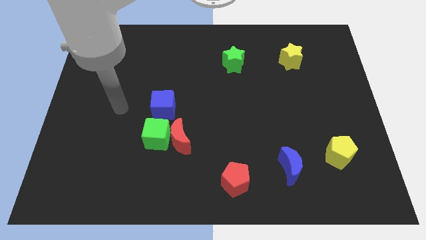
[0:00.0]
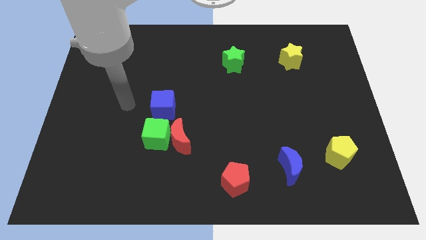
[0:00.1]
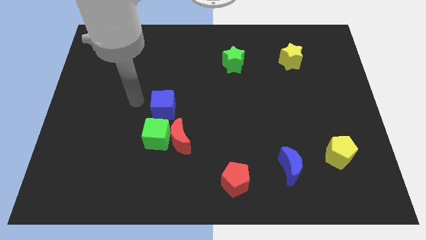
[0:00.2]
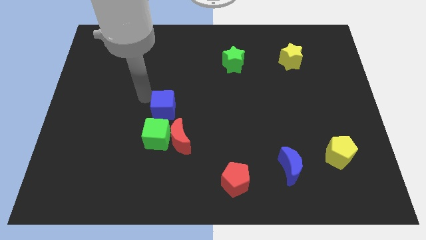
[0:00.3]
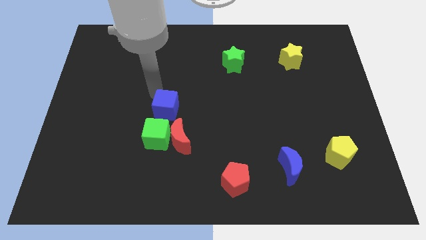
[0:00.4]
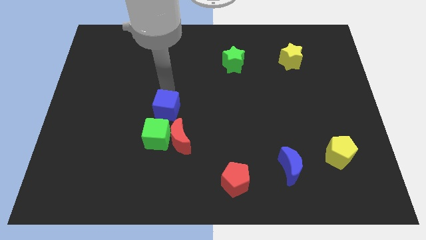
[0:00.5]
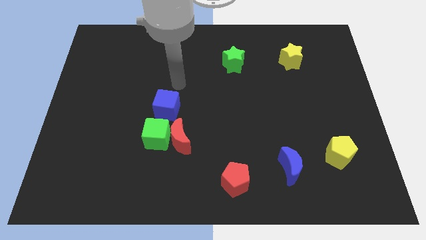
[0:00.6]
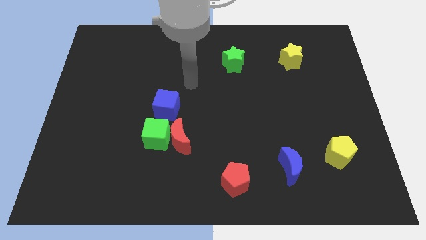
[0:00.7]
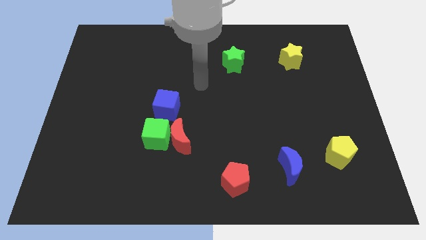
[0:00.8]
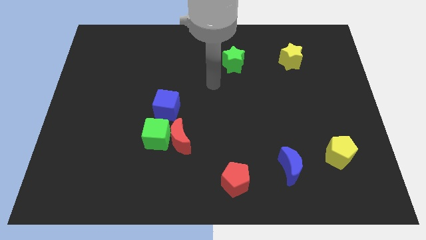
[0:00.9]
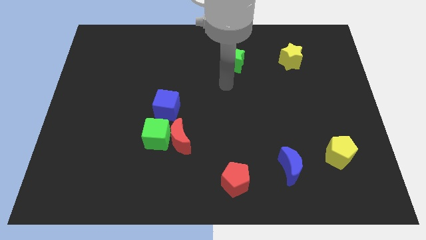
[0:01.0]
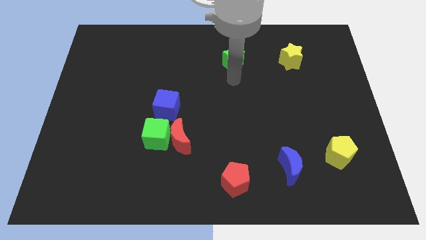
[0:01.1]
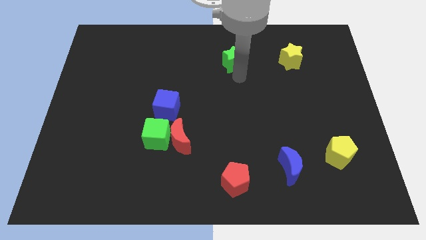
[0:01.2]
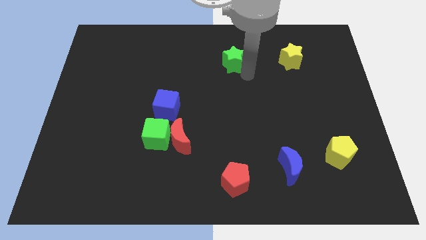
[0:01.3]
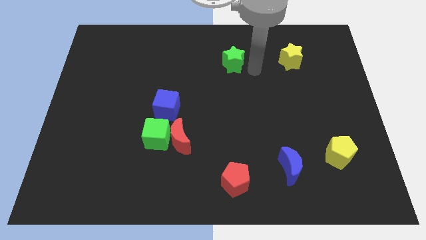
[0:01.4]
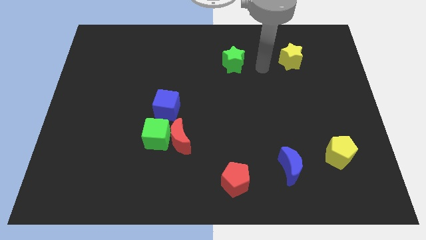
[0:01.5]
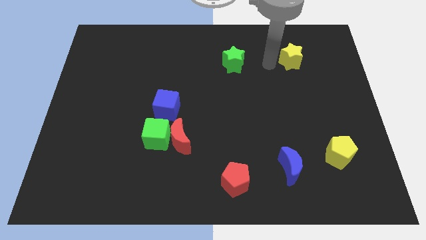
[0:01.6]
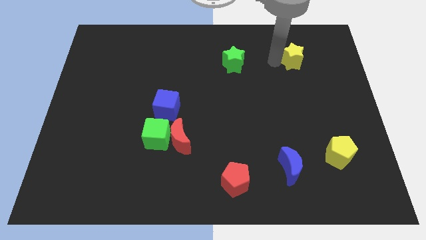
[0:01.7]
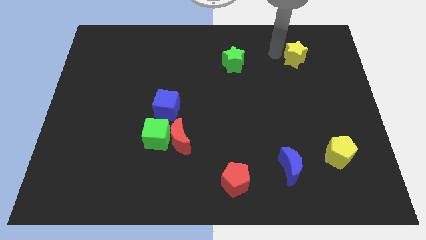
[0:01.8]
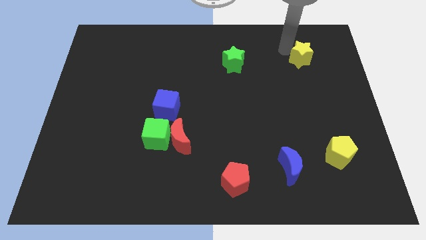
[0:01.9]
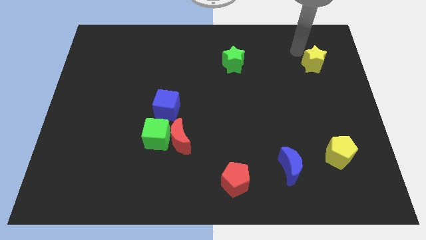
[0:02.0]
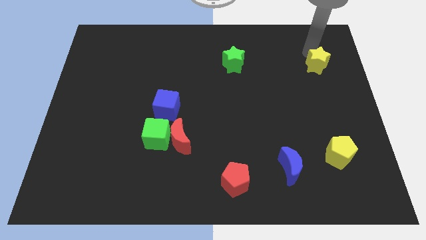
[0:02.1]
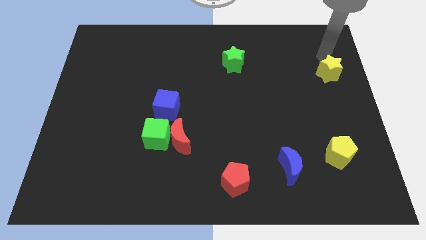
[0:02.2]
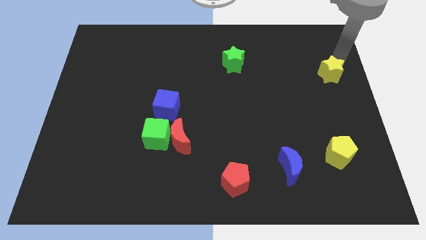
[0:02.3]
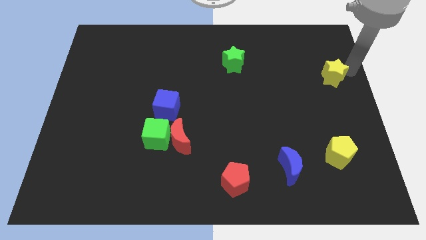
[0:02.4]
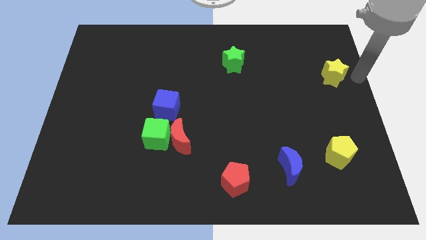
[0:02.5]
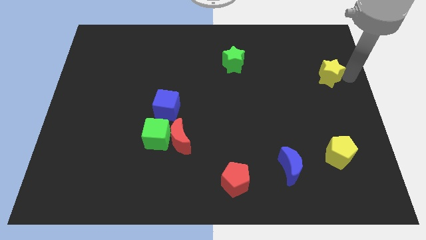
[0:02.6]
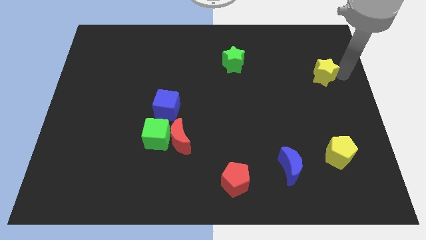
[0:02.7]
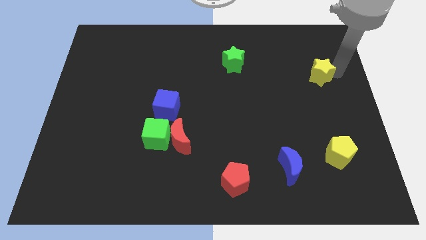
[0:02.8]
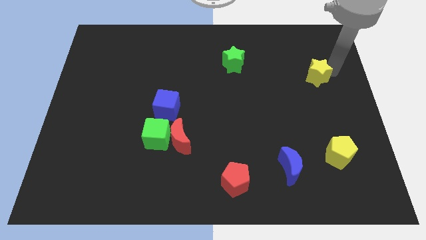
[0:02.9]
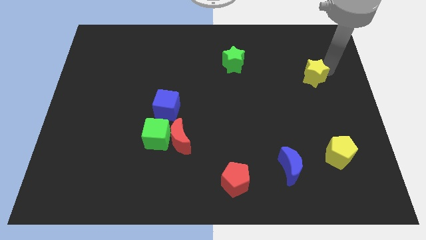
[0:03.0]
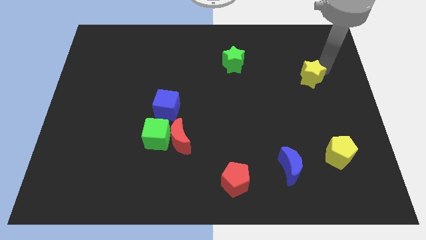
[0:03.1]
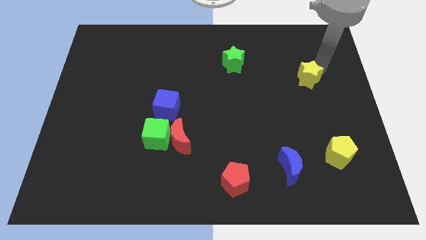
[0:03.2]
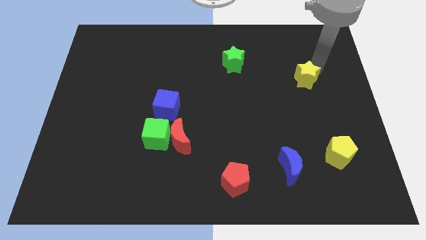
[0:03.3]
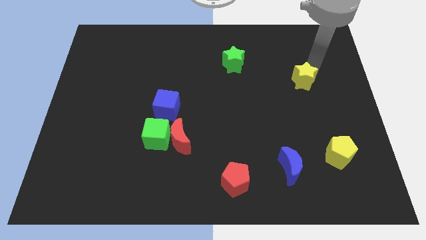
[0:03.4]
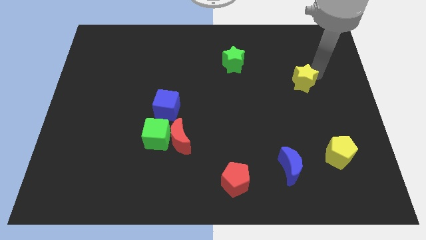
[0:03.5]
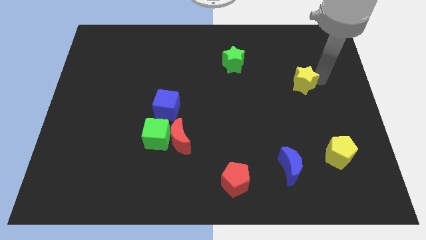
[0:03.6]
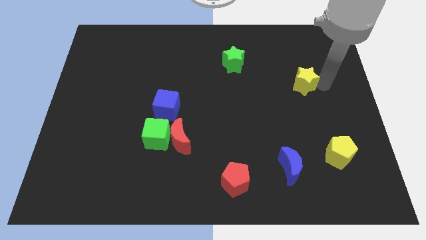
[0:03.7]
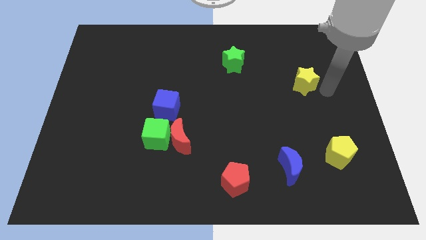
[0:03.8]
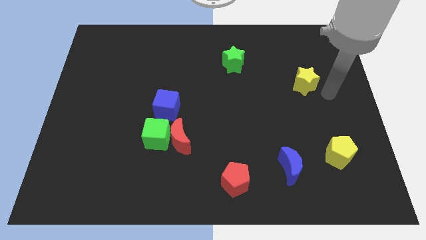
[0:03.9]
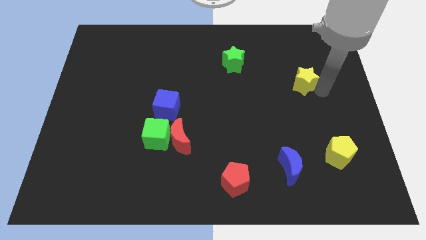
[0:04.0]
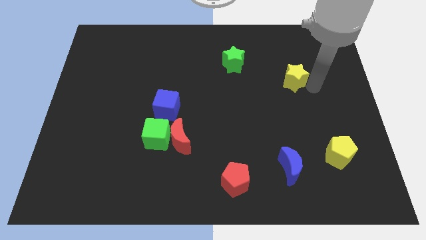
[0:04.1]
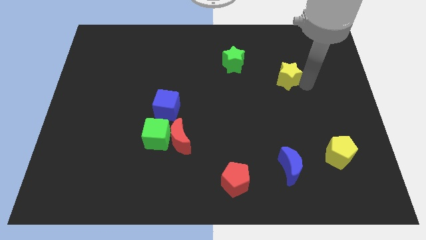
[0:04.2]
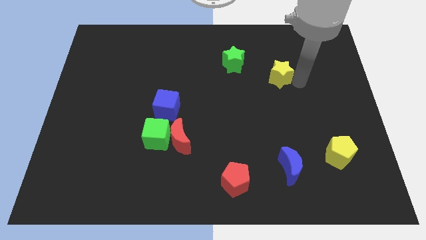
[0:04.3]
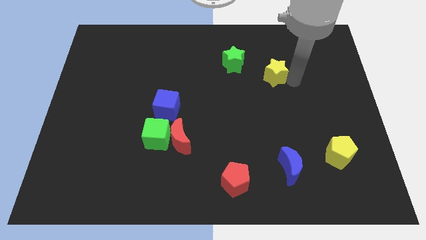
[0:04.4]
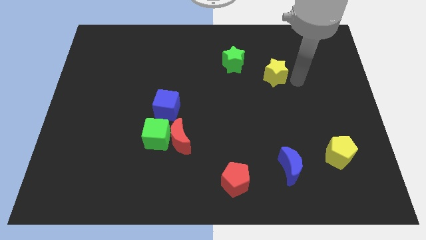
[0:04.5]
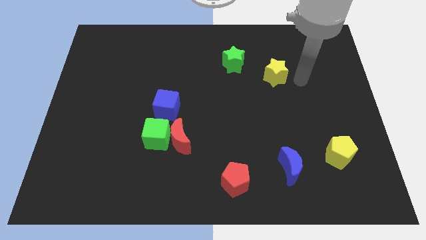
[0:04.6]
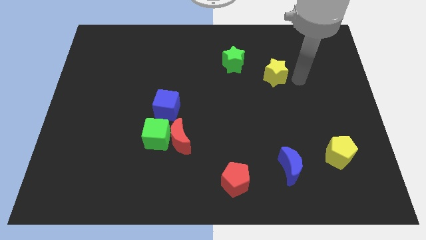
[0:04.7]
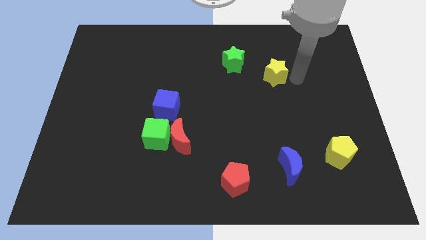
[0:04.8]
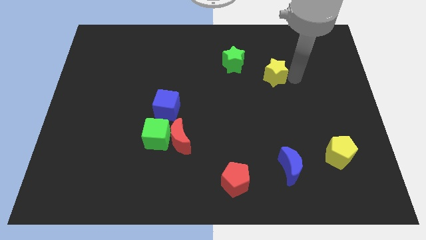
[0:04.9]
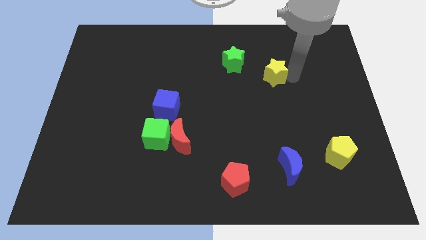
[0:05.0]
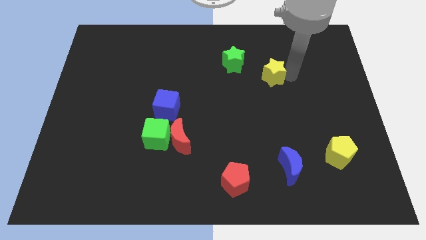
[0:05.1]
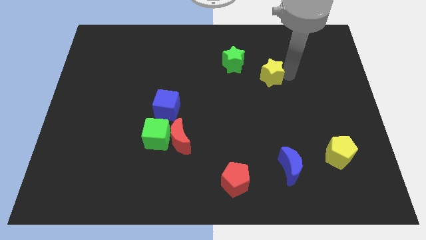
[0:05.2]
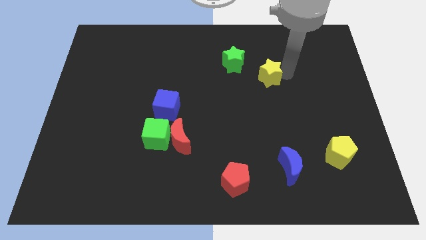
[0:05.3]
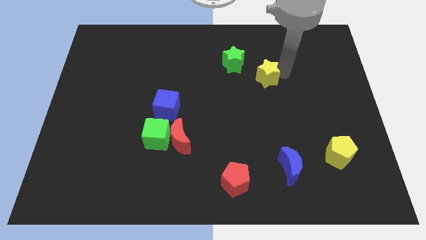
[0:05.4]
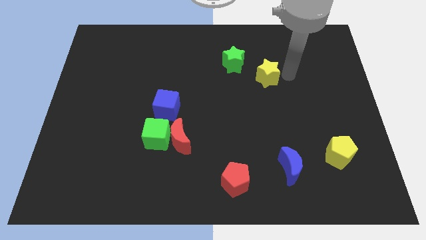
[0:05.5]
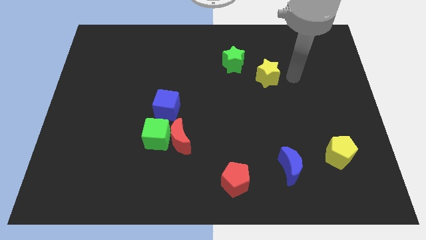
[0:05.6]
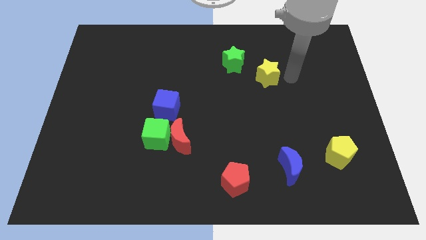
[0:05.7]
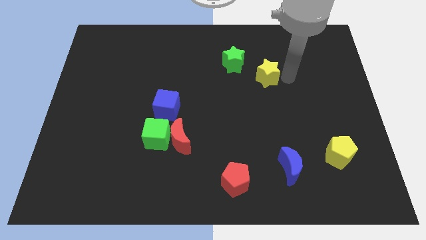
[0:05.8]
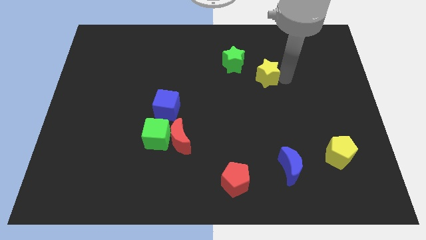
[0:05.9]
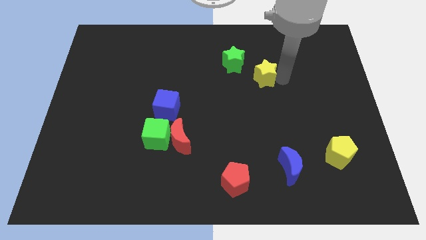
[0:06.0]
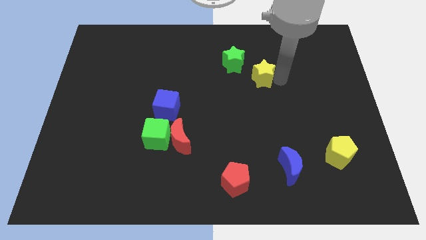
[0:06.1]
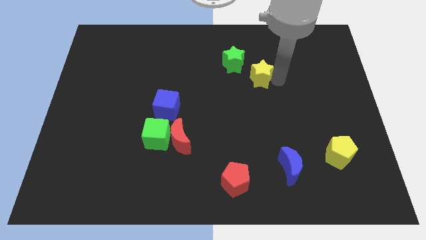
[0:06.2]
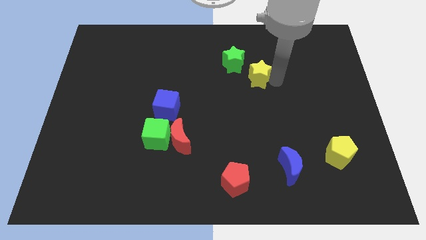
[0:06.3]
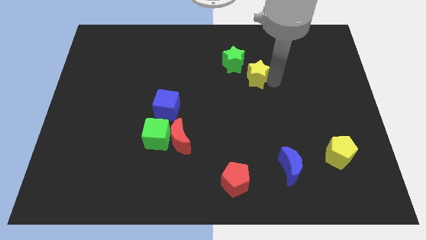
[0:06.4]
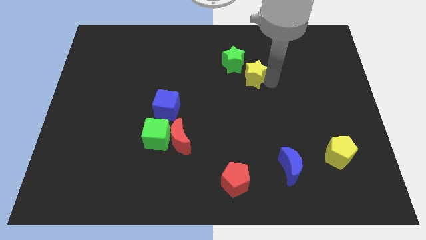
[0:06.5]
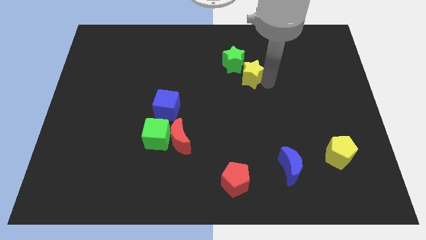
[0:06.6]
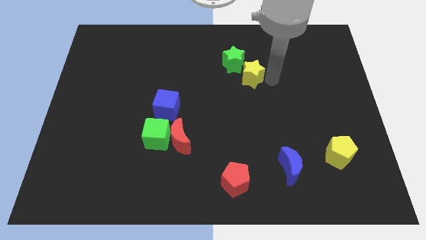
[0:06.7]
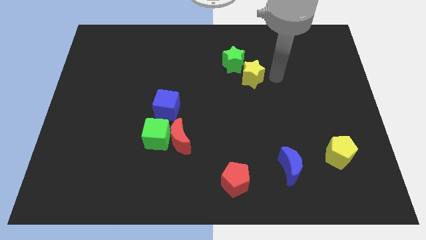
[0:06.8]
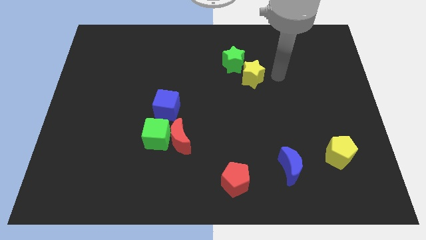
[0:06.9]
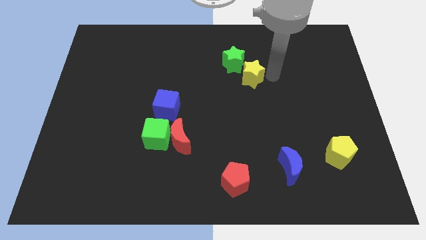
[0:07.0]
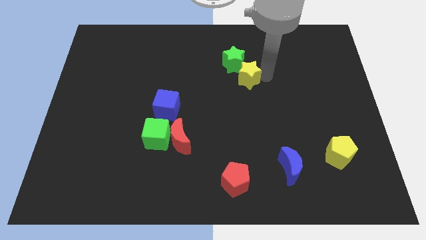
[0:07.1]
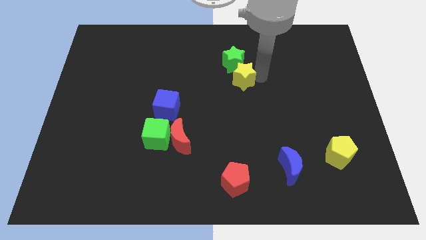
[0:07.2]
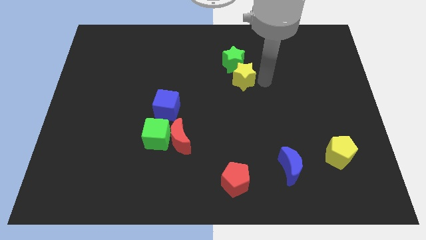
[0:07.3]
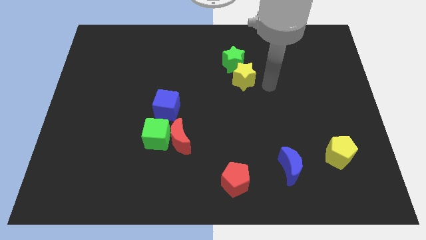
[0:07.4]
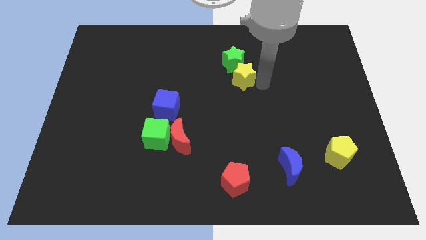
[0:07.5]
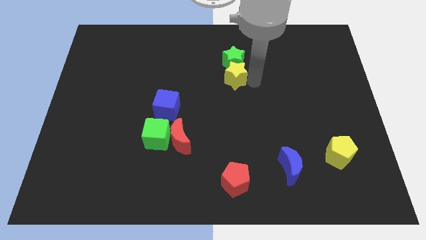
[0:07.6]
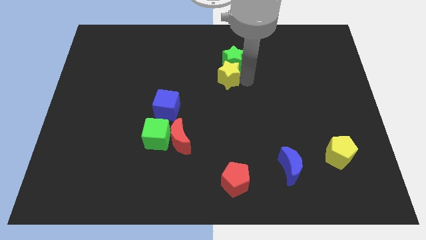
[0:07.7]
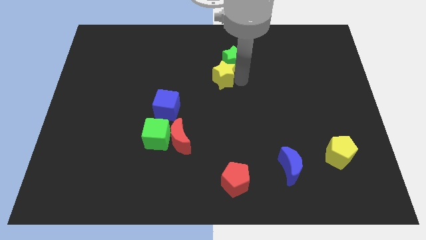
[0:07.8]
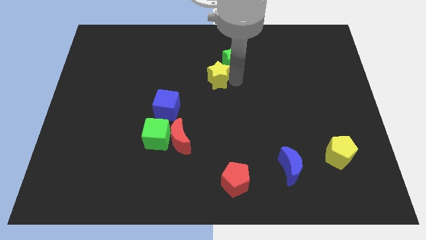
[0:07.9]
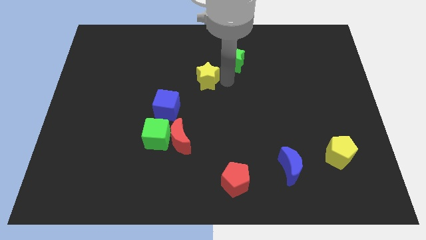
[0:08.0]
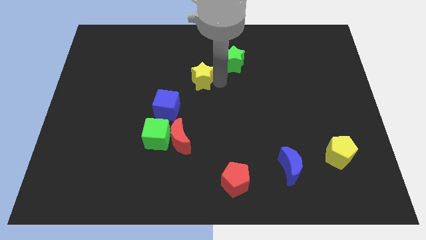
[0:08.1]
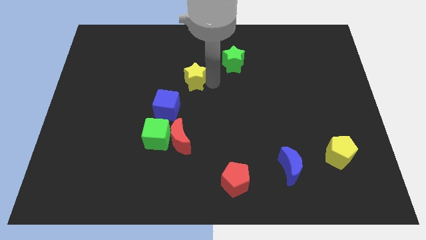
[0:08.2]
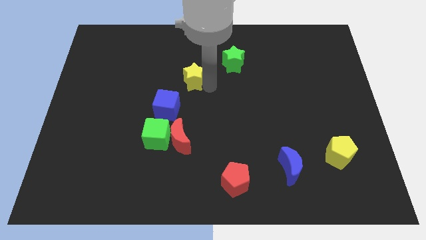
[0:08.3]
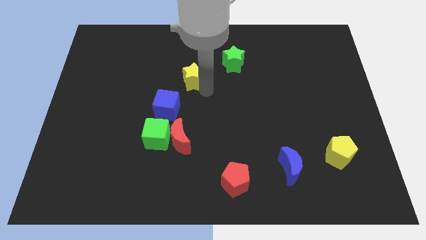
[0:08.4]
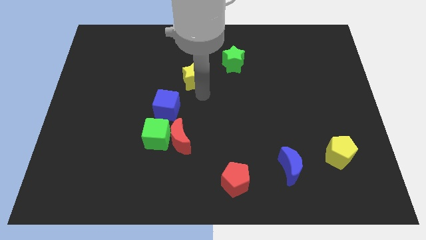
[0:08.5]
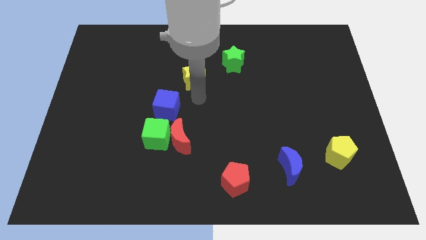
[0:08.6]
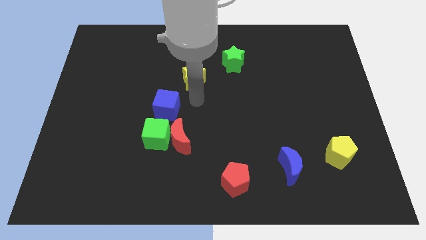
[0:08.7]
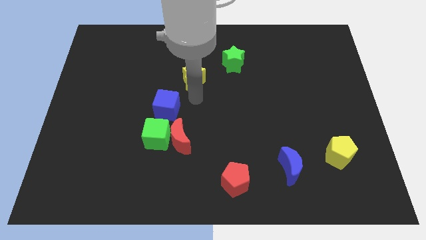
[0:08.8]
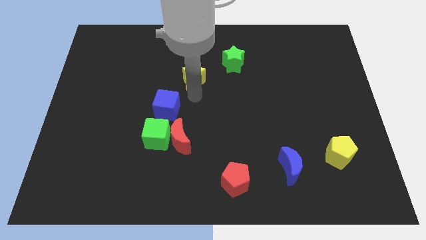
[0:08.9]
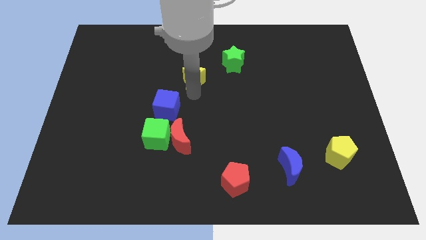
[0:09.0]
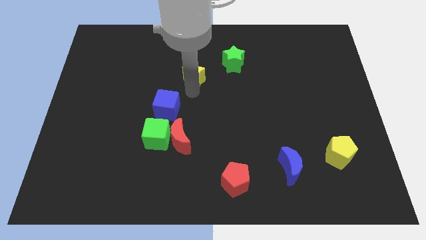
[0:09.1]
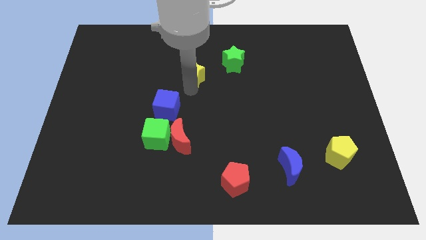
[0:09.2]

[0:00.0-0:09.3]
move the yellow star left of the green star
